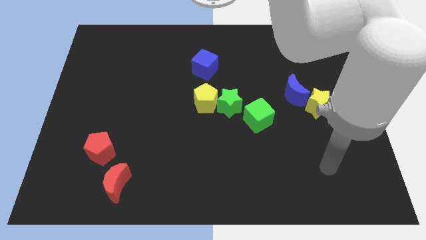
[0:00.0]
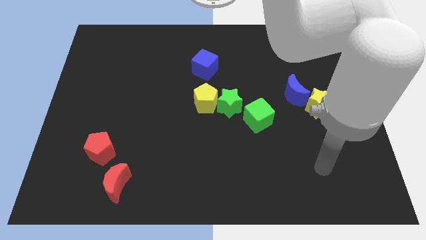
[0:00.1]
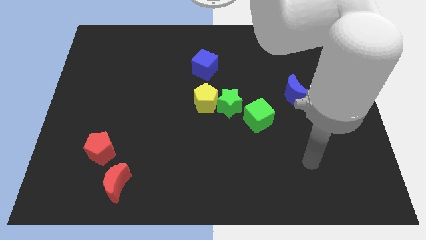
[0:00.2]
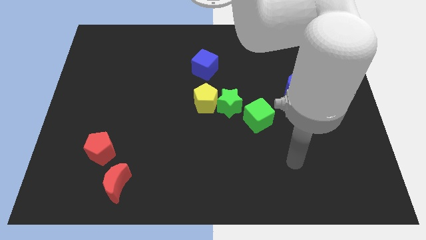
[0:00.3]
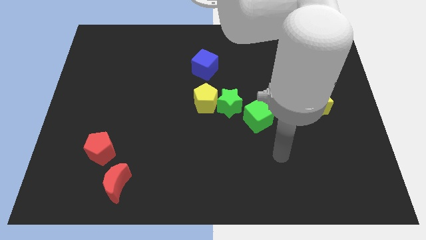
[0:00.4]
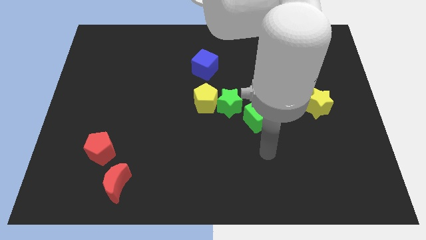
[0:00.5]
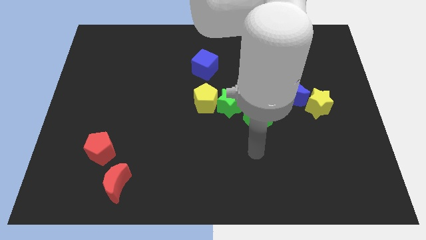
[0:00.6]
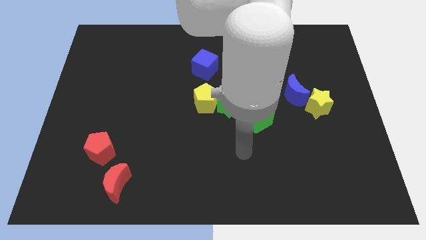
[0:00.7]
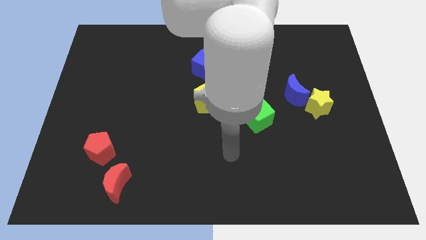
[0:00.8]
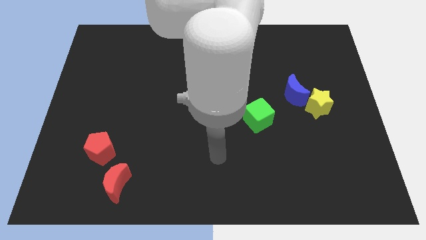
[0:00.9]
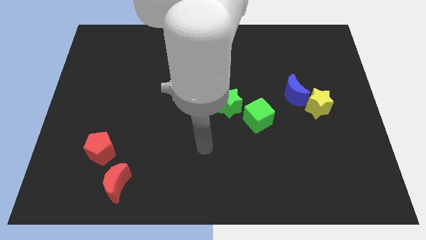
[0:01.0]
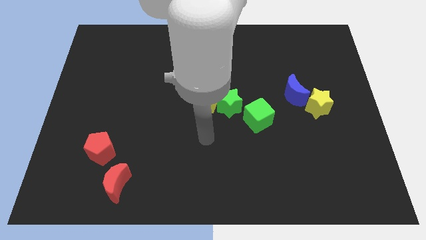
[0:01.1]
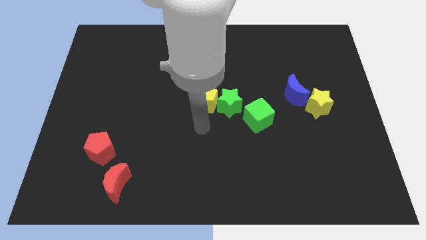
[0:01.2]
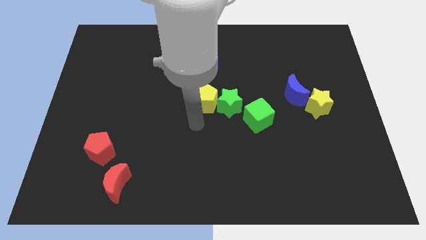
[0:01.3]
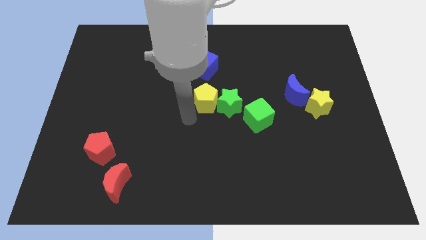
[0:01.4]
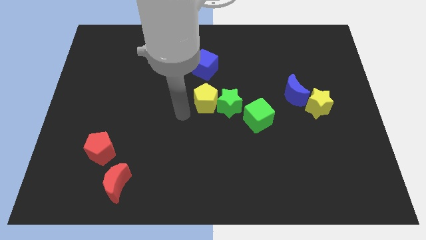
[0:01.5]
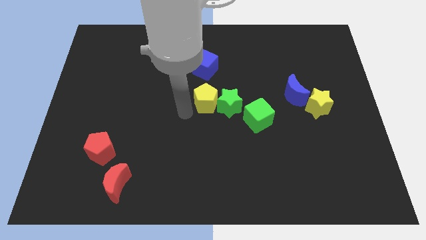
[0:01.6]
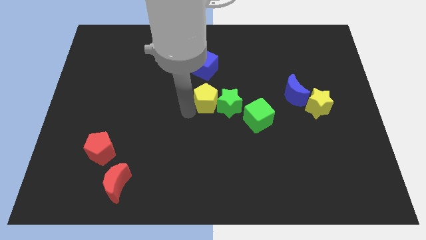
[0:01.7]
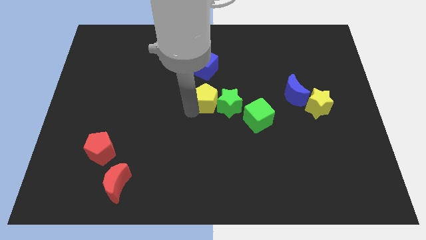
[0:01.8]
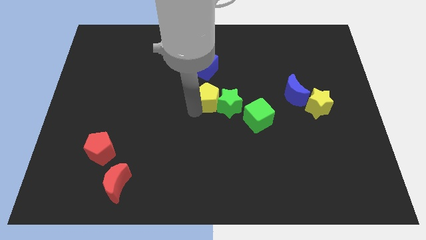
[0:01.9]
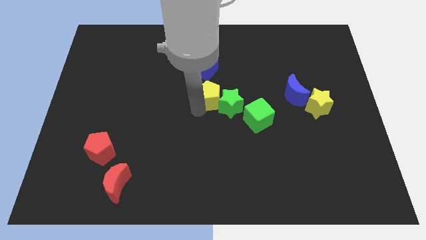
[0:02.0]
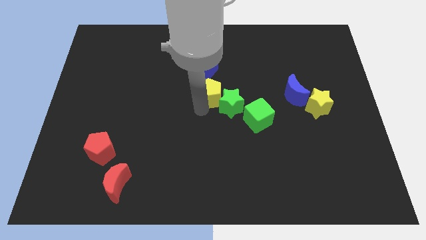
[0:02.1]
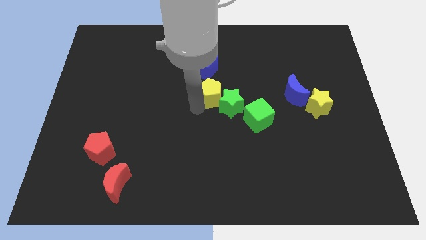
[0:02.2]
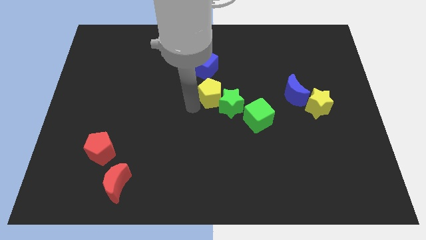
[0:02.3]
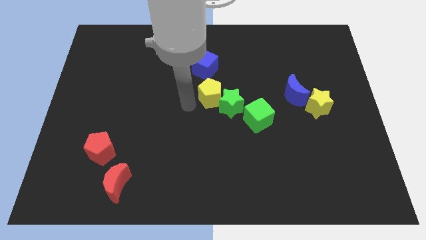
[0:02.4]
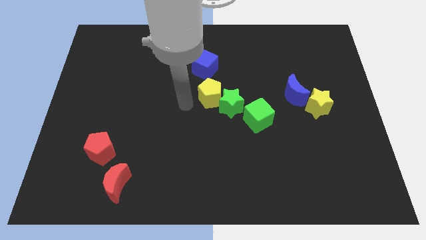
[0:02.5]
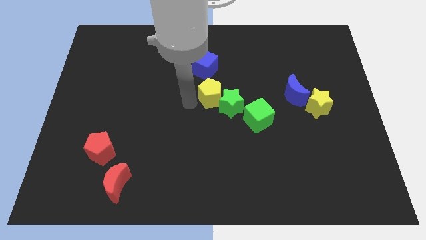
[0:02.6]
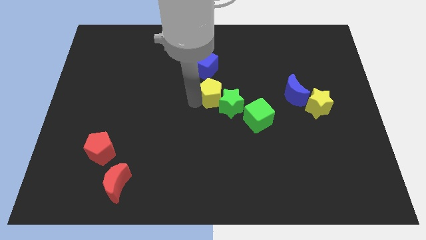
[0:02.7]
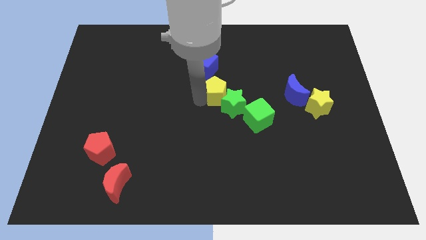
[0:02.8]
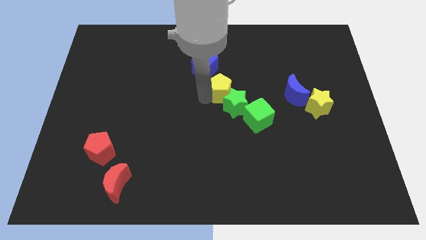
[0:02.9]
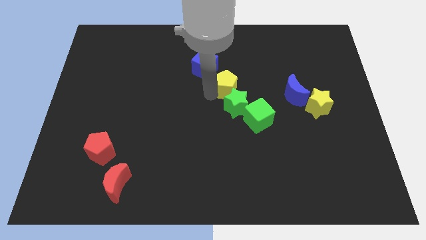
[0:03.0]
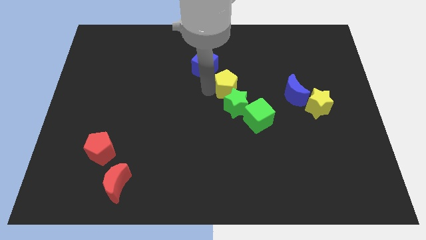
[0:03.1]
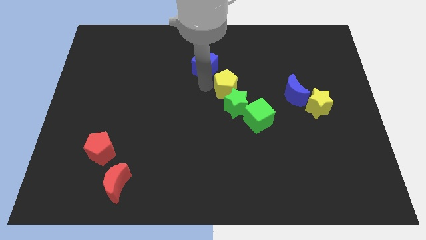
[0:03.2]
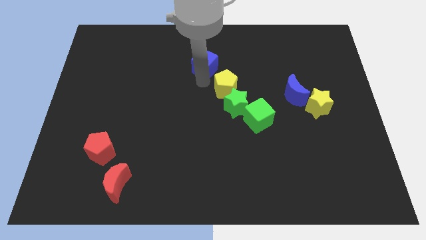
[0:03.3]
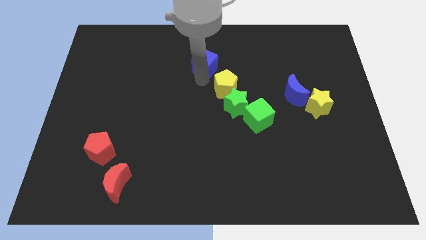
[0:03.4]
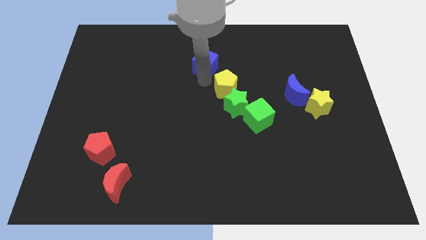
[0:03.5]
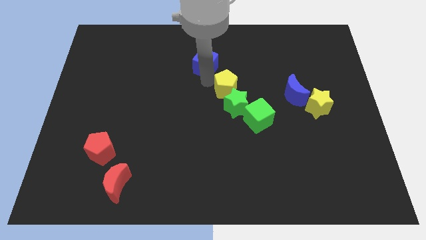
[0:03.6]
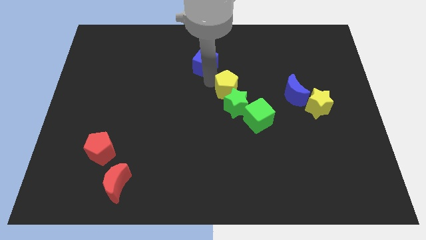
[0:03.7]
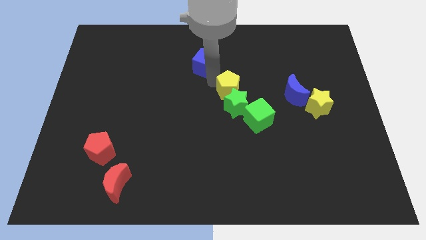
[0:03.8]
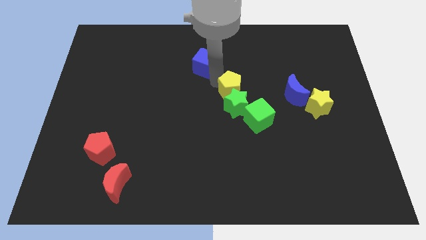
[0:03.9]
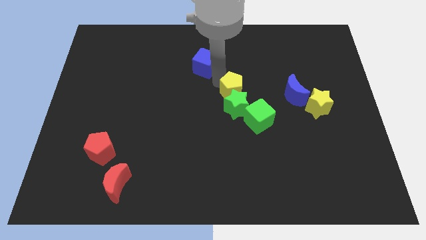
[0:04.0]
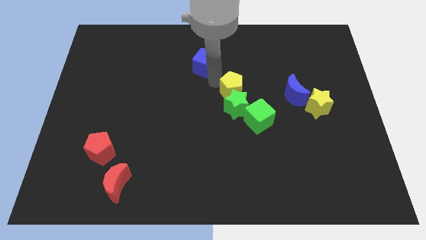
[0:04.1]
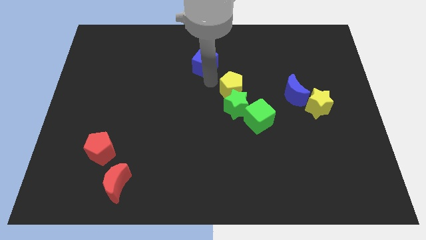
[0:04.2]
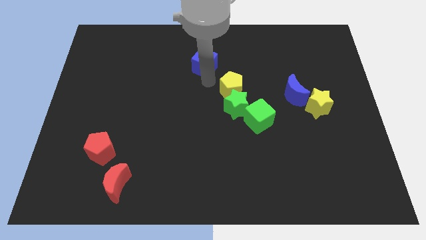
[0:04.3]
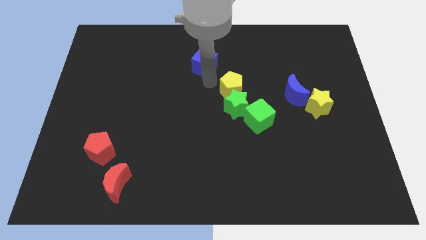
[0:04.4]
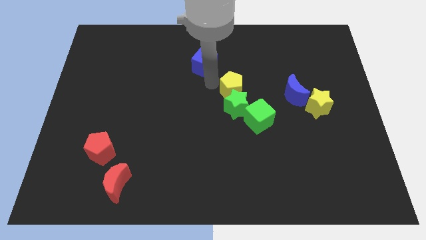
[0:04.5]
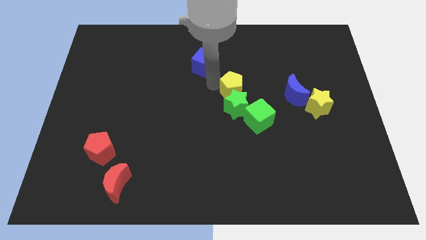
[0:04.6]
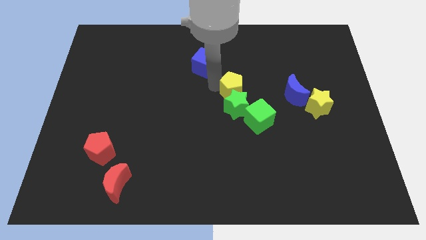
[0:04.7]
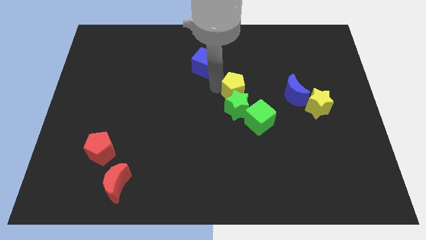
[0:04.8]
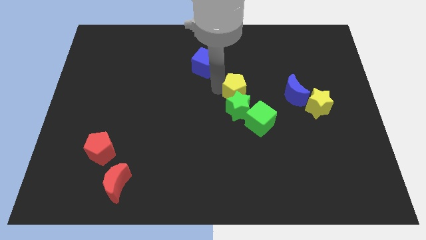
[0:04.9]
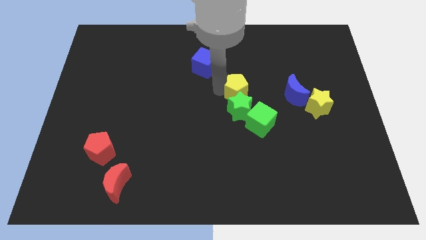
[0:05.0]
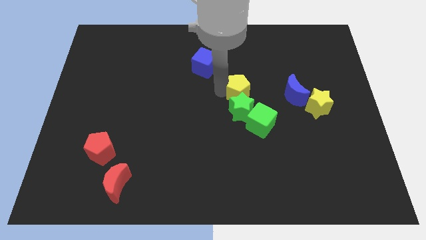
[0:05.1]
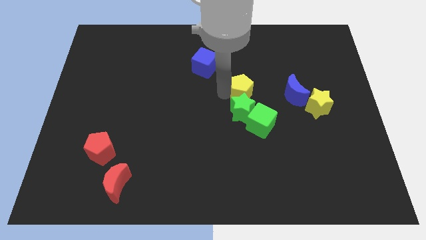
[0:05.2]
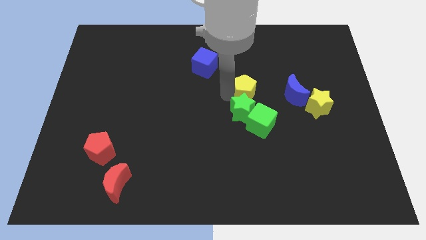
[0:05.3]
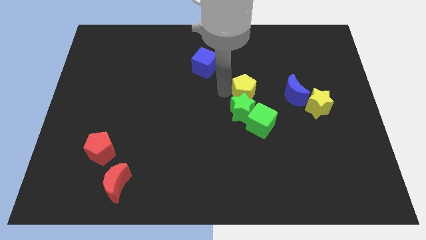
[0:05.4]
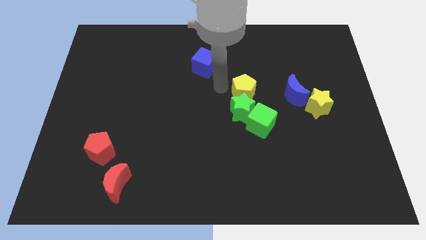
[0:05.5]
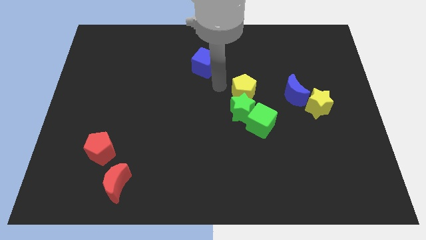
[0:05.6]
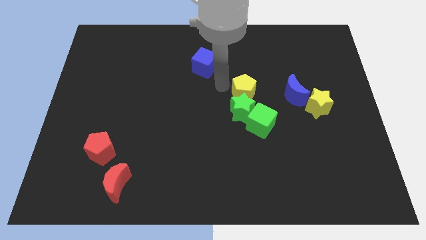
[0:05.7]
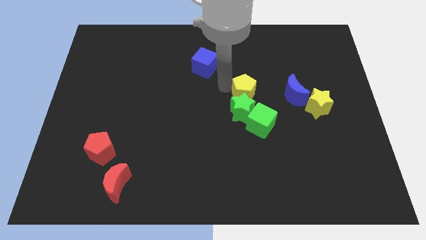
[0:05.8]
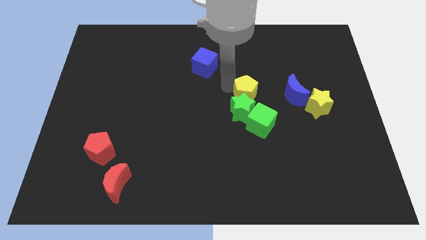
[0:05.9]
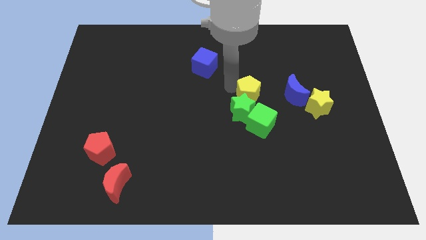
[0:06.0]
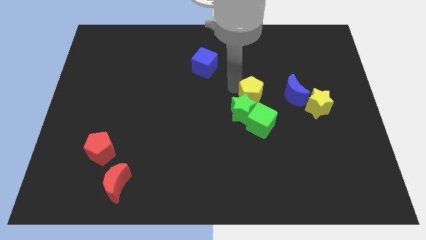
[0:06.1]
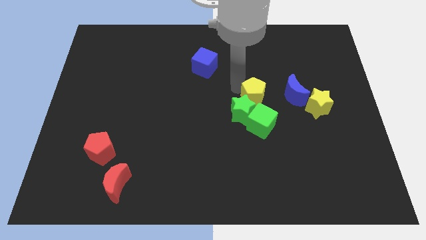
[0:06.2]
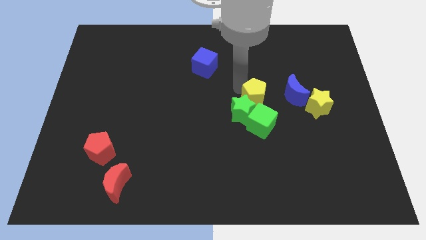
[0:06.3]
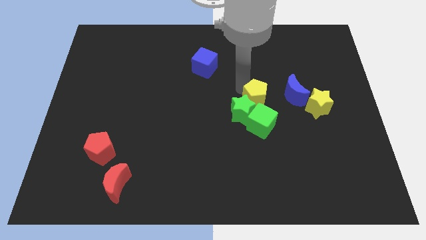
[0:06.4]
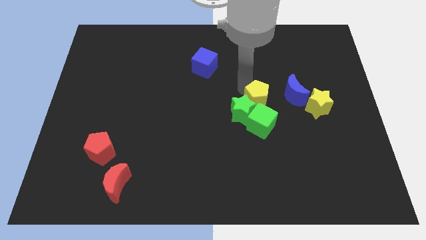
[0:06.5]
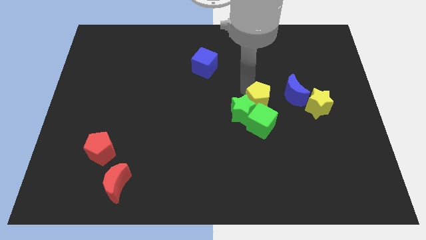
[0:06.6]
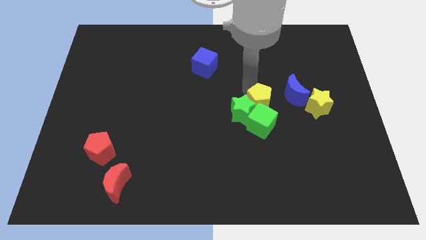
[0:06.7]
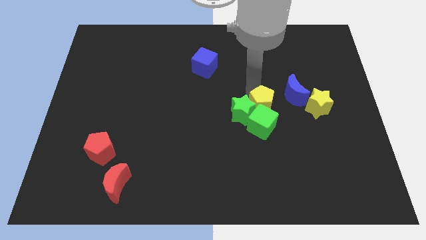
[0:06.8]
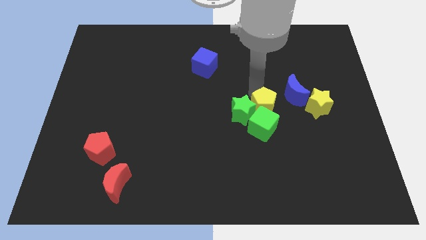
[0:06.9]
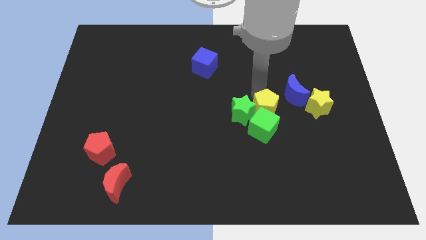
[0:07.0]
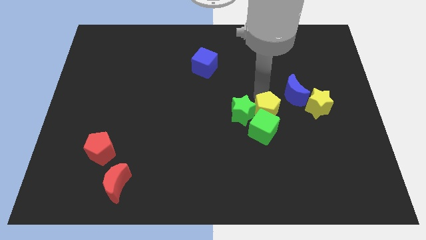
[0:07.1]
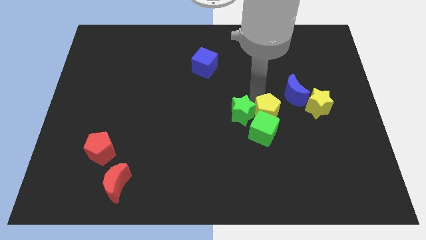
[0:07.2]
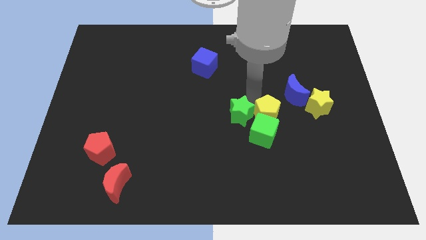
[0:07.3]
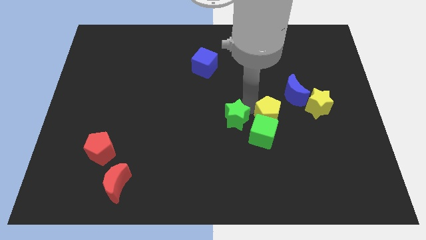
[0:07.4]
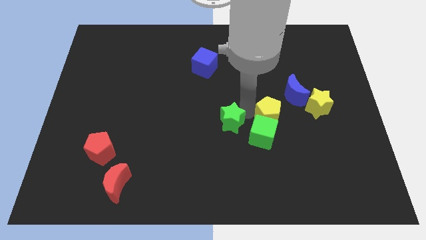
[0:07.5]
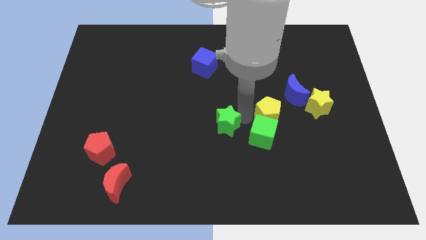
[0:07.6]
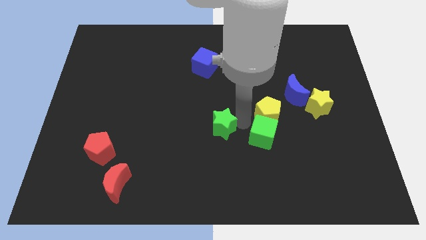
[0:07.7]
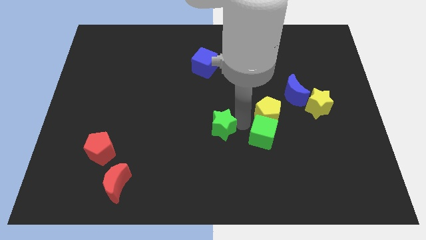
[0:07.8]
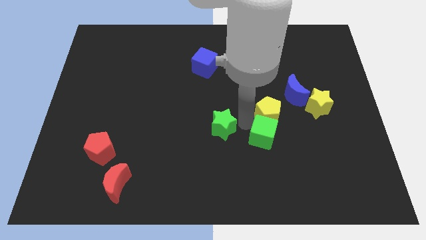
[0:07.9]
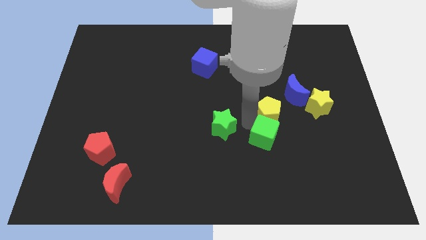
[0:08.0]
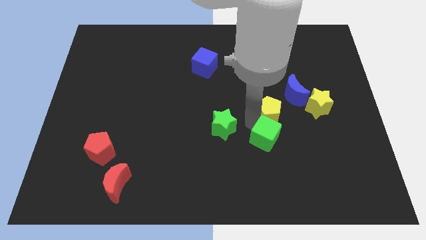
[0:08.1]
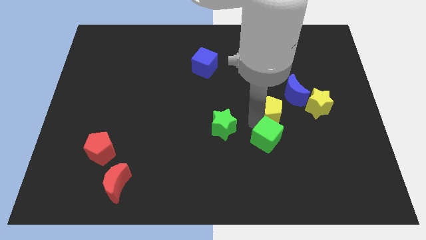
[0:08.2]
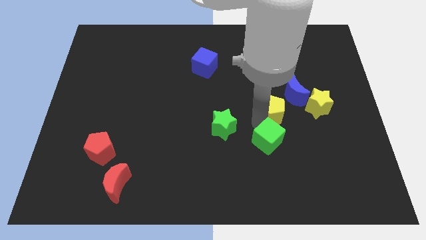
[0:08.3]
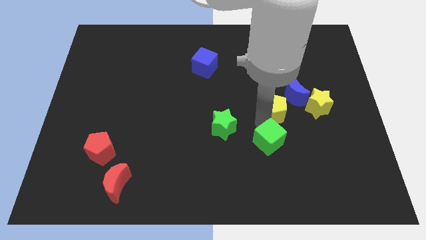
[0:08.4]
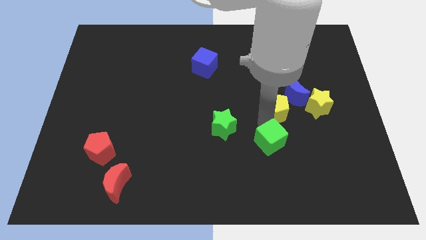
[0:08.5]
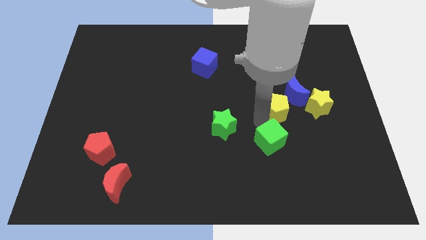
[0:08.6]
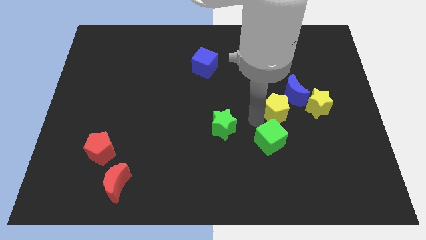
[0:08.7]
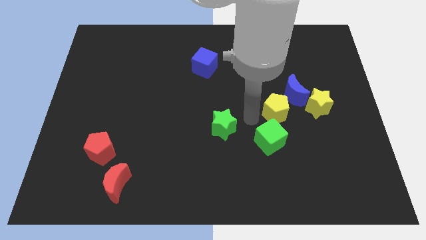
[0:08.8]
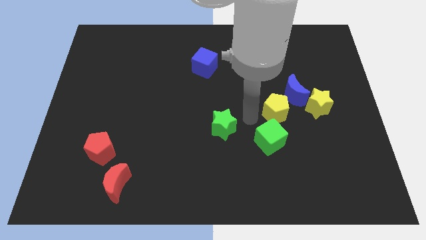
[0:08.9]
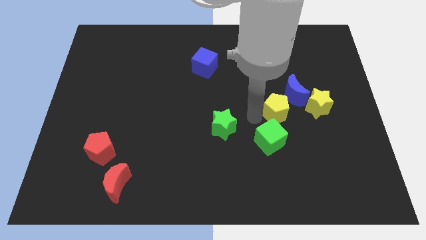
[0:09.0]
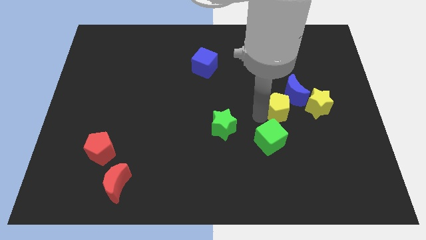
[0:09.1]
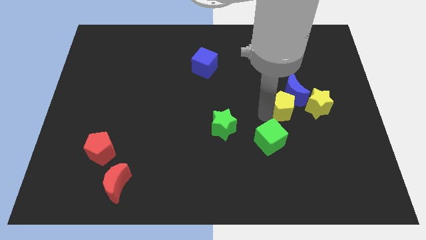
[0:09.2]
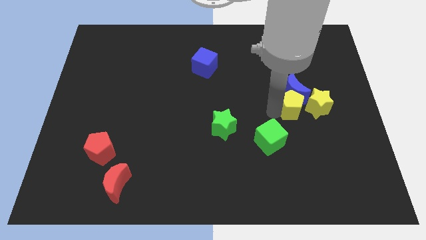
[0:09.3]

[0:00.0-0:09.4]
push the yellow pentagon towards the yellow star
